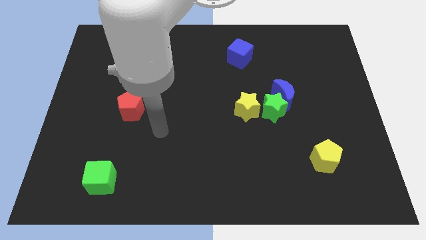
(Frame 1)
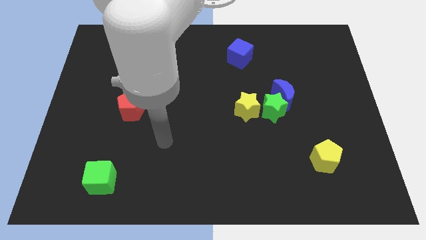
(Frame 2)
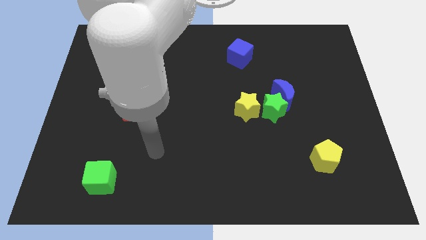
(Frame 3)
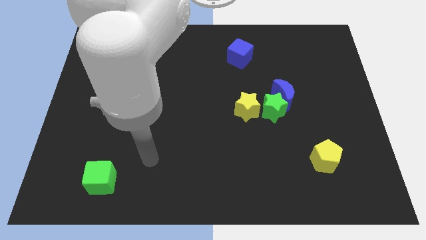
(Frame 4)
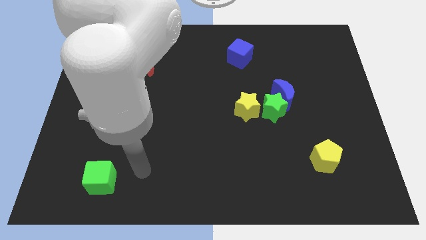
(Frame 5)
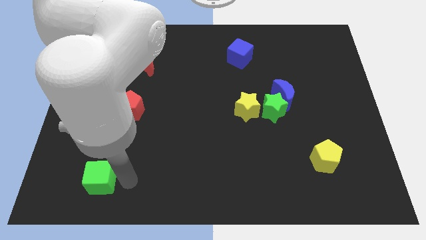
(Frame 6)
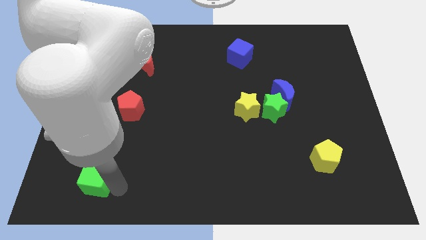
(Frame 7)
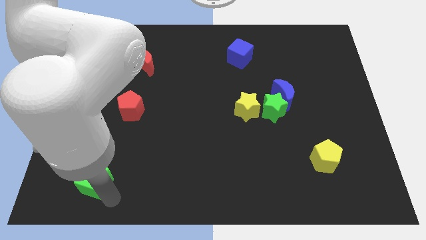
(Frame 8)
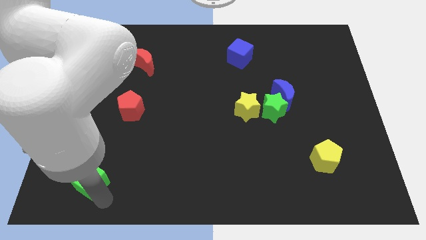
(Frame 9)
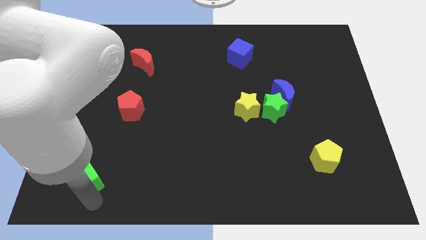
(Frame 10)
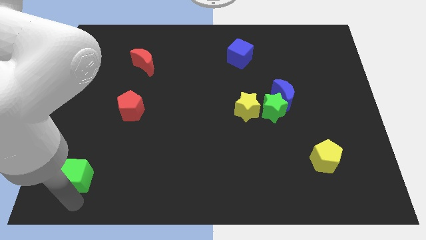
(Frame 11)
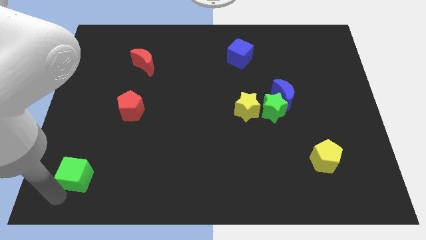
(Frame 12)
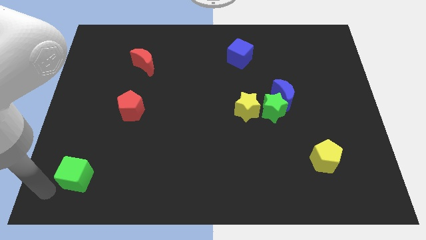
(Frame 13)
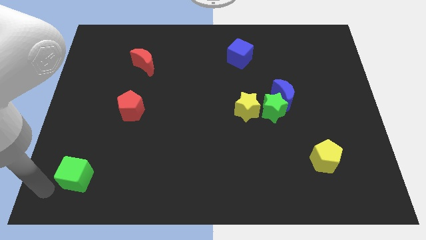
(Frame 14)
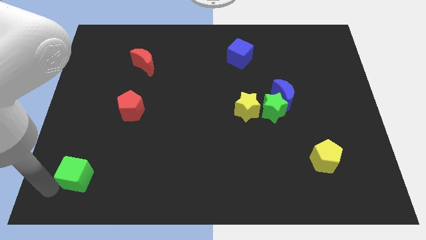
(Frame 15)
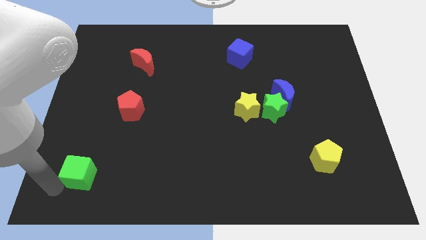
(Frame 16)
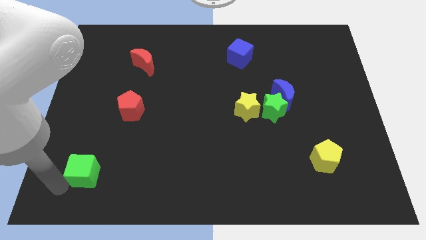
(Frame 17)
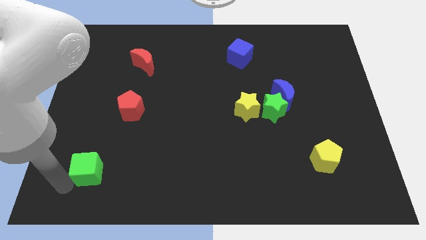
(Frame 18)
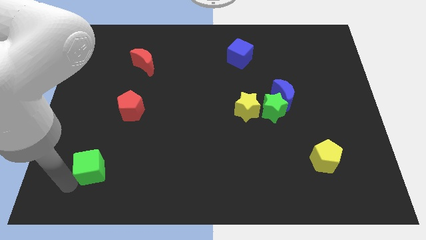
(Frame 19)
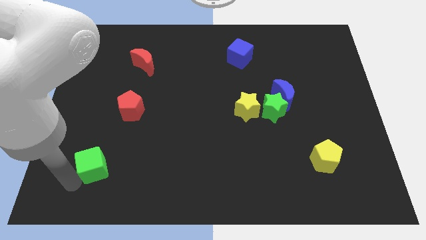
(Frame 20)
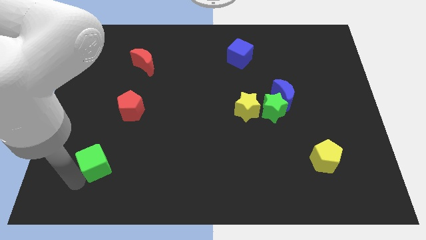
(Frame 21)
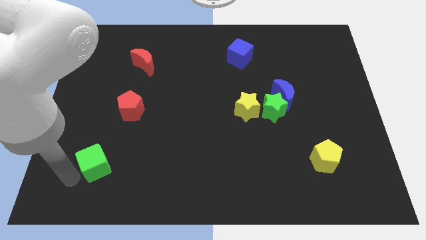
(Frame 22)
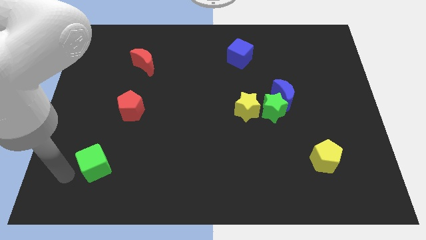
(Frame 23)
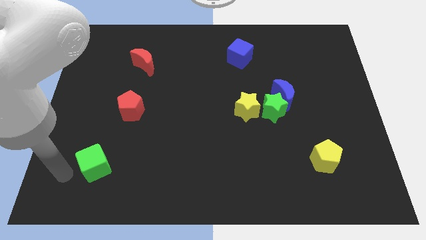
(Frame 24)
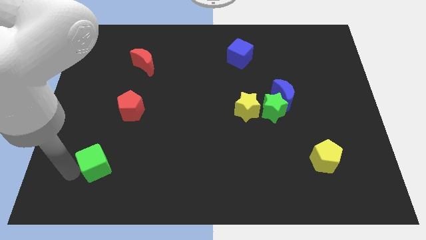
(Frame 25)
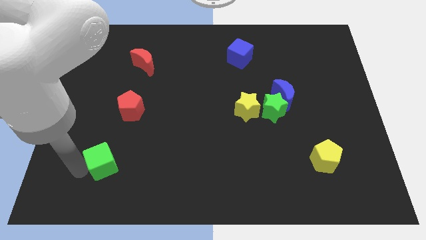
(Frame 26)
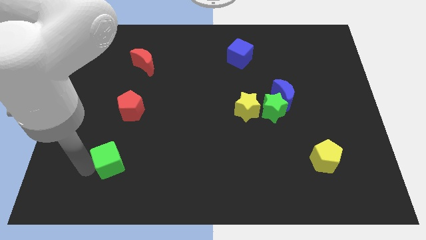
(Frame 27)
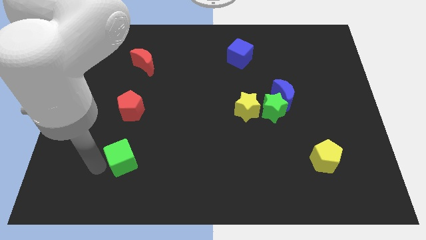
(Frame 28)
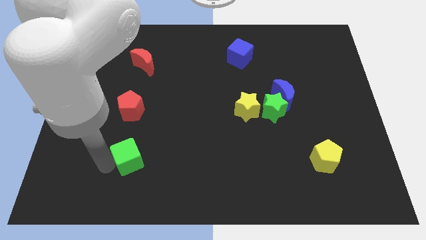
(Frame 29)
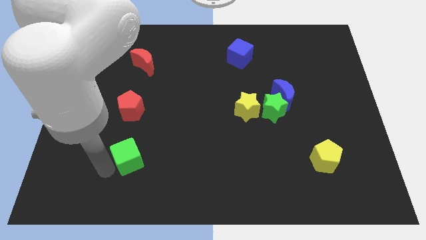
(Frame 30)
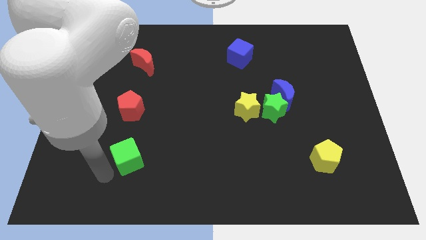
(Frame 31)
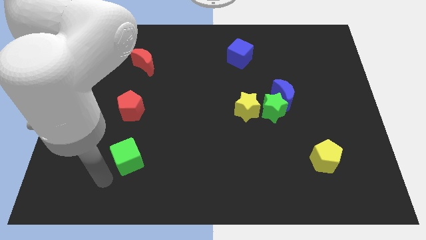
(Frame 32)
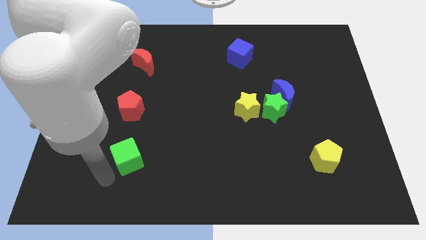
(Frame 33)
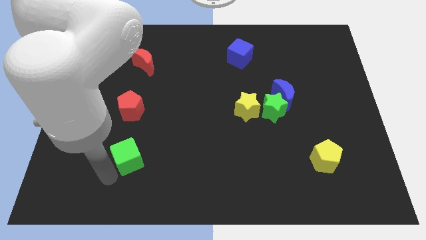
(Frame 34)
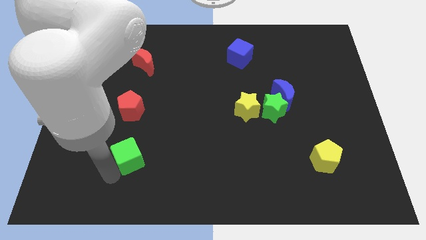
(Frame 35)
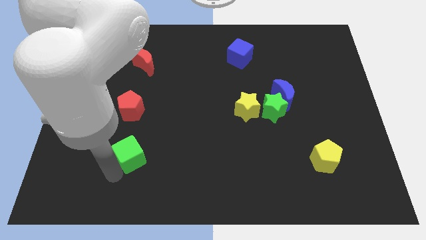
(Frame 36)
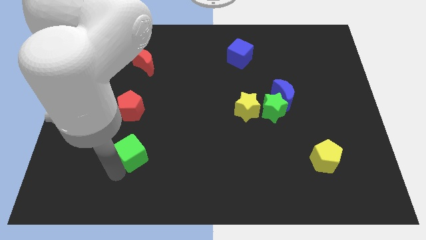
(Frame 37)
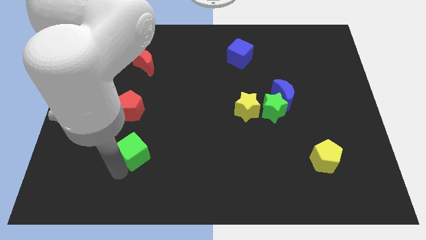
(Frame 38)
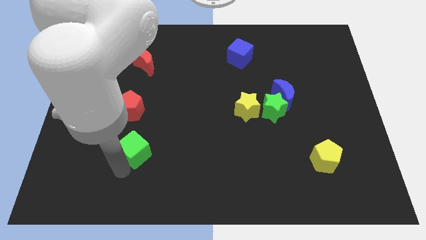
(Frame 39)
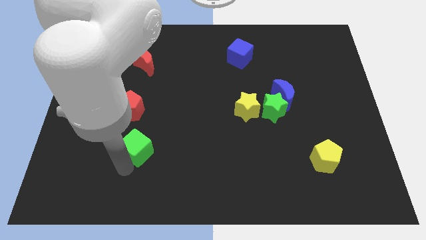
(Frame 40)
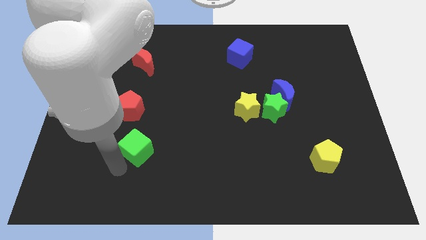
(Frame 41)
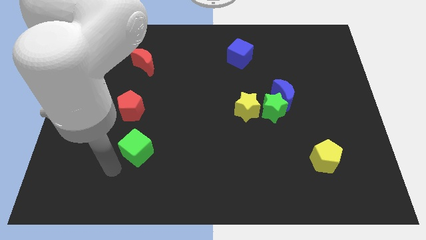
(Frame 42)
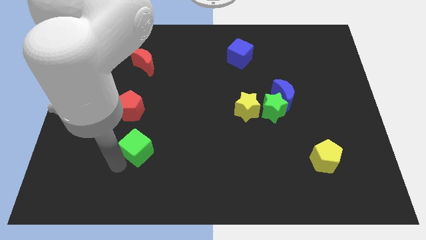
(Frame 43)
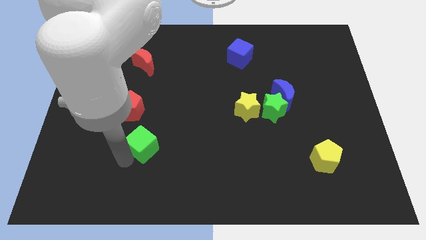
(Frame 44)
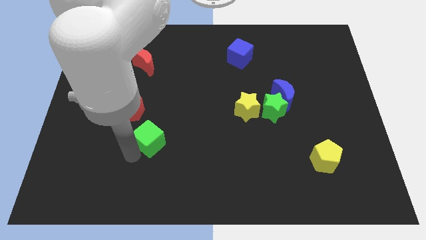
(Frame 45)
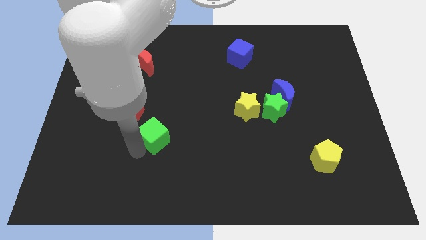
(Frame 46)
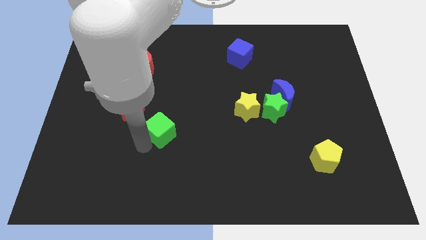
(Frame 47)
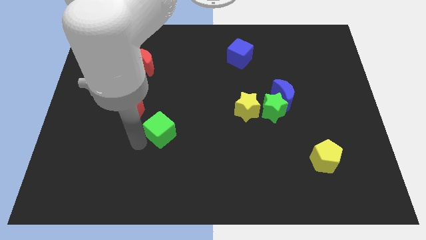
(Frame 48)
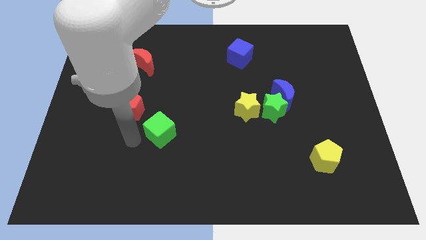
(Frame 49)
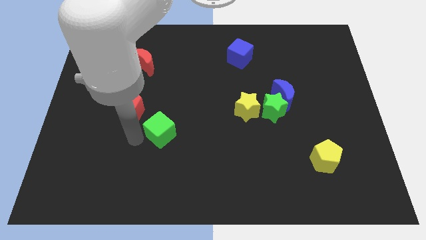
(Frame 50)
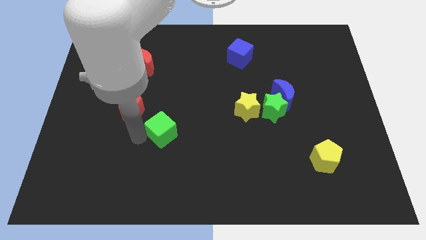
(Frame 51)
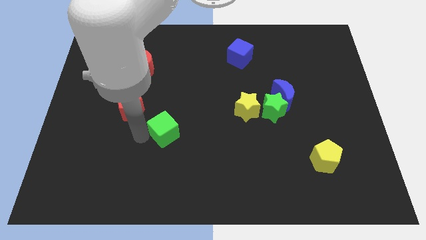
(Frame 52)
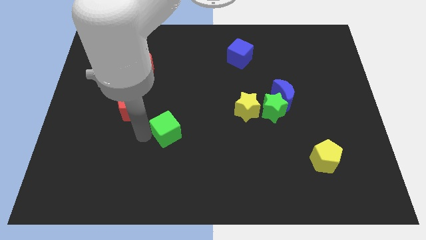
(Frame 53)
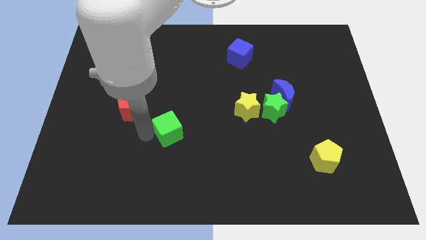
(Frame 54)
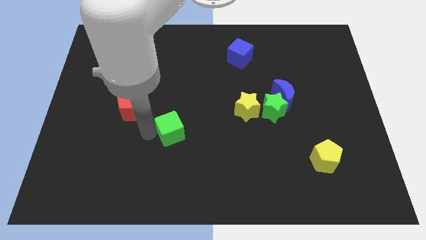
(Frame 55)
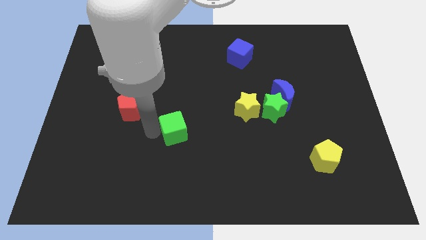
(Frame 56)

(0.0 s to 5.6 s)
put the green cube to the middle

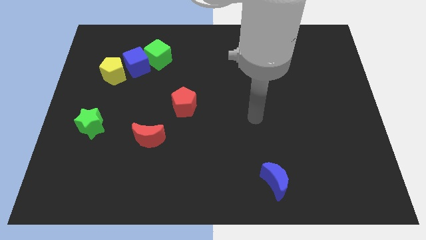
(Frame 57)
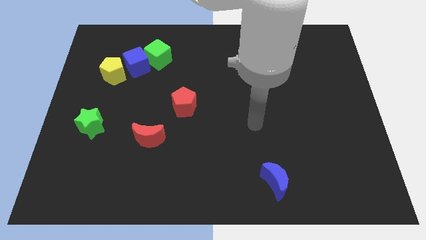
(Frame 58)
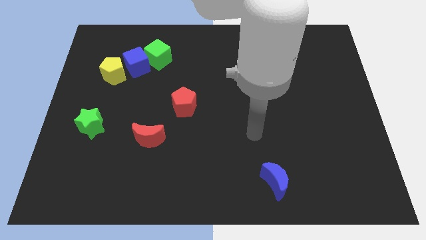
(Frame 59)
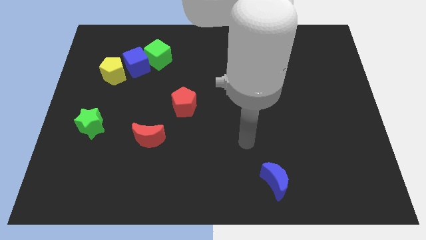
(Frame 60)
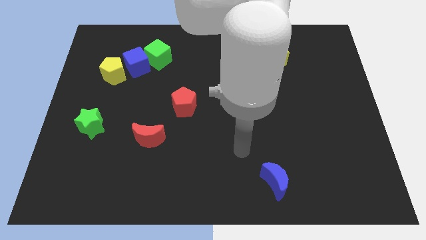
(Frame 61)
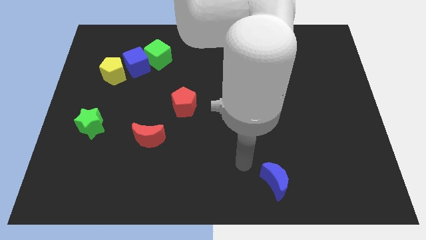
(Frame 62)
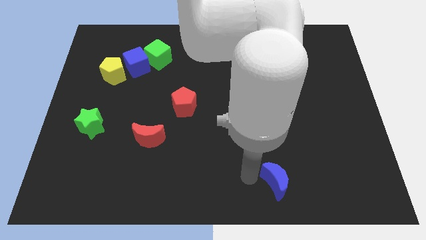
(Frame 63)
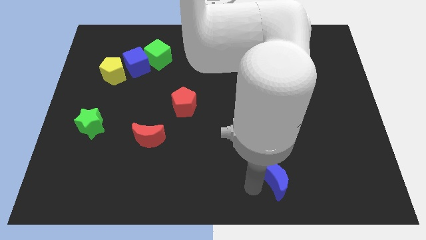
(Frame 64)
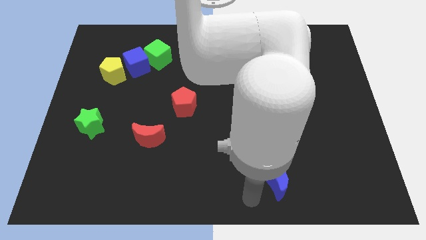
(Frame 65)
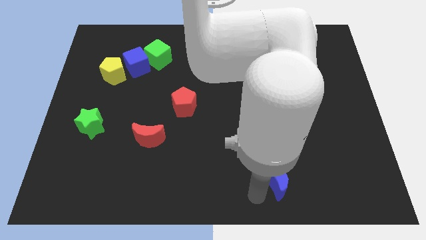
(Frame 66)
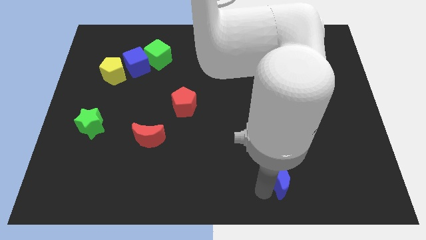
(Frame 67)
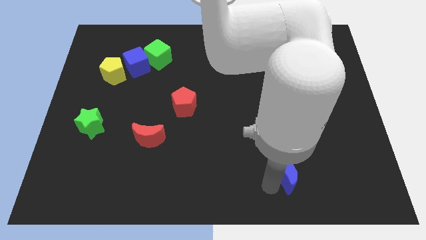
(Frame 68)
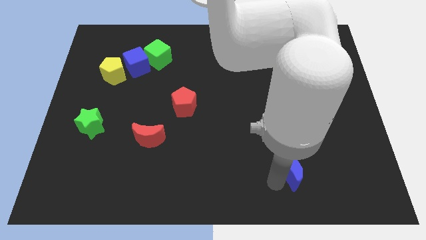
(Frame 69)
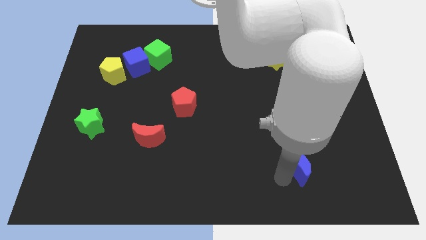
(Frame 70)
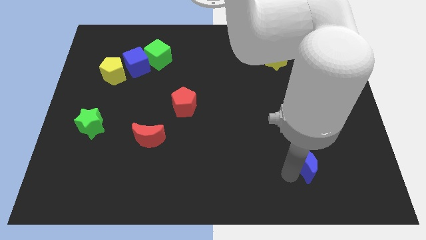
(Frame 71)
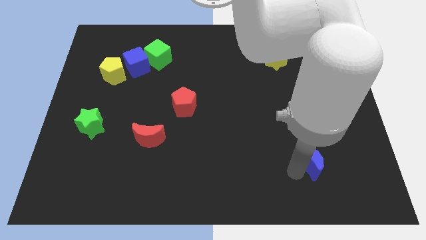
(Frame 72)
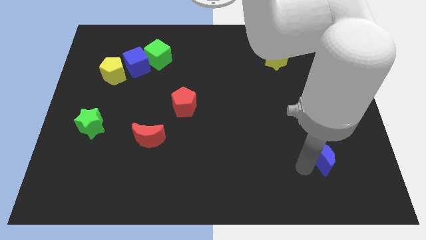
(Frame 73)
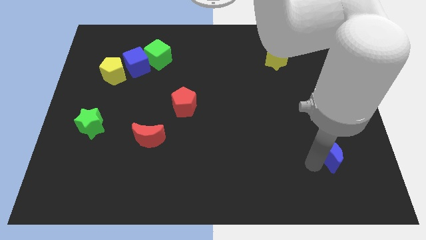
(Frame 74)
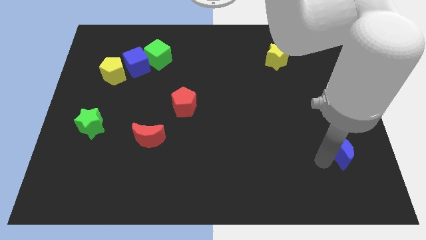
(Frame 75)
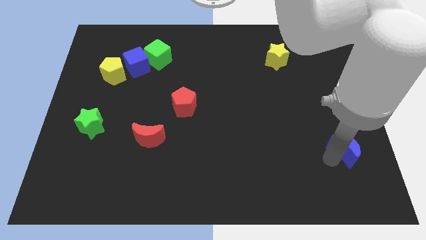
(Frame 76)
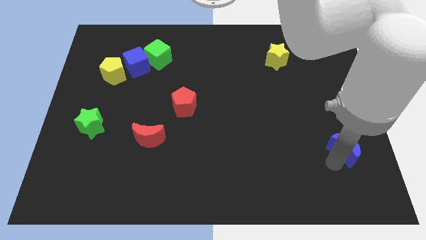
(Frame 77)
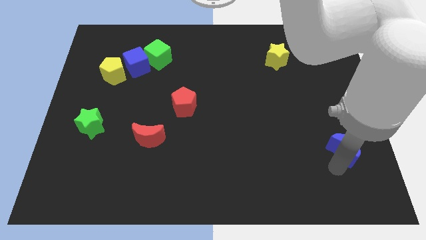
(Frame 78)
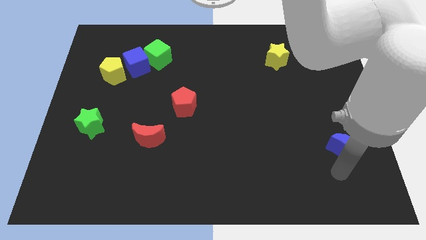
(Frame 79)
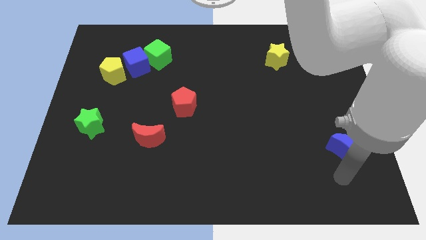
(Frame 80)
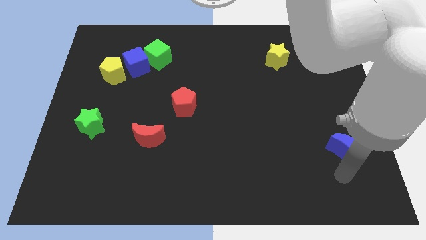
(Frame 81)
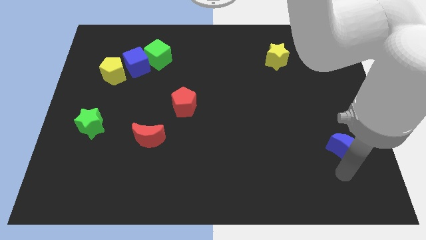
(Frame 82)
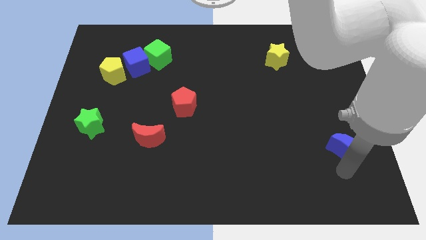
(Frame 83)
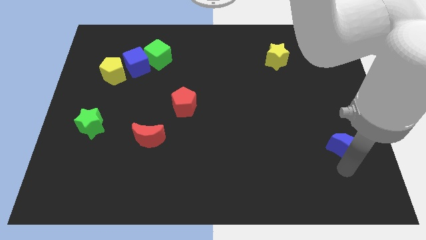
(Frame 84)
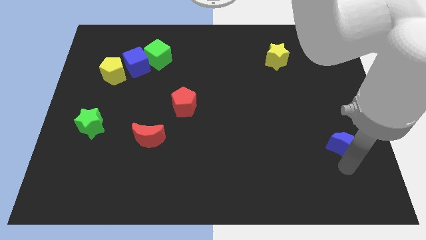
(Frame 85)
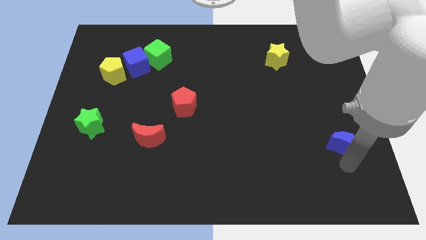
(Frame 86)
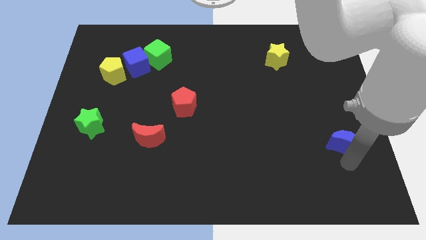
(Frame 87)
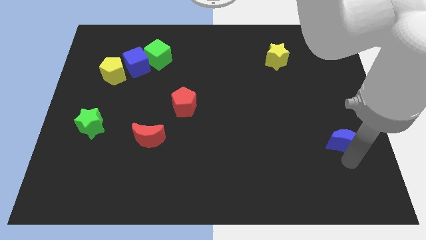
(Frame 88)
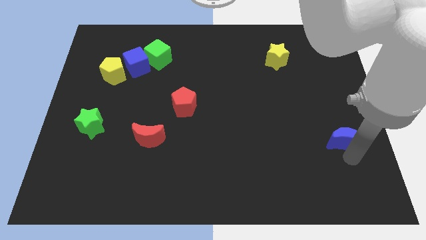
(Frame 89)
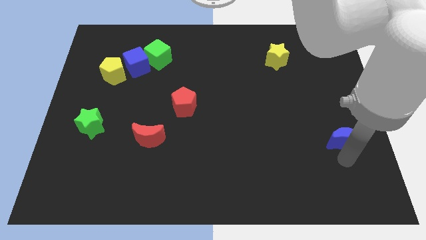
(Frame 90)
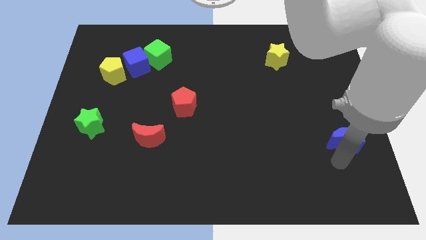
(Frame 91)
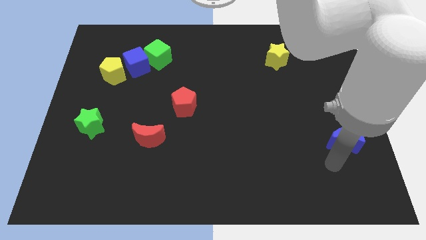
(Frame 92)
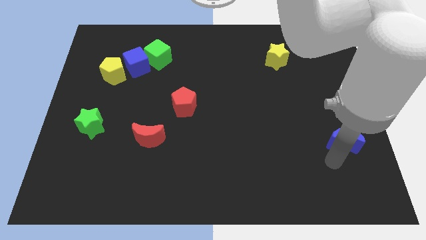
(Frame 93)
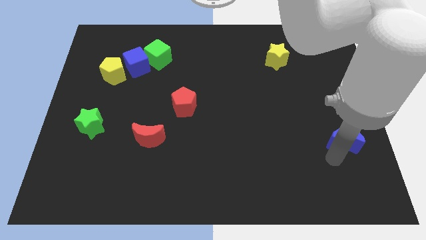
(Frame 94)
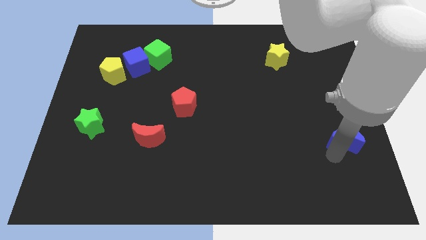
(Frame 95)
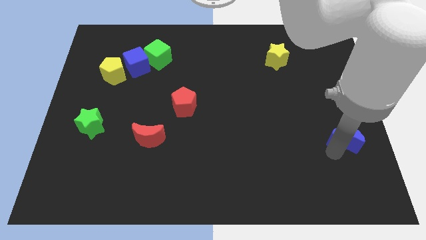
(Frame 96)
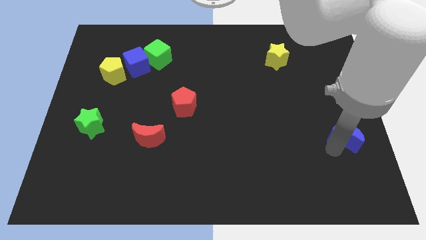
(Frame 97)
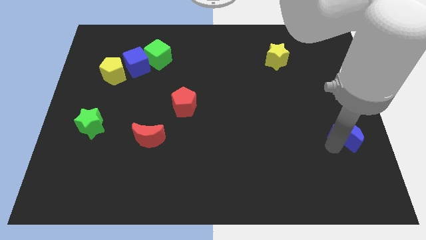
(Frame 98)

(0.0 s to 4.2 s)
move the blue moon to the center right
